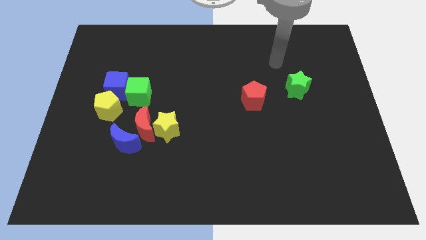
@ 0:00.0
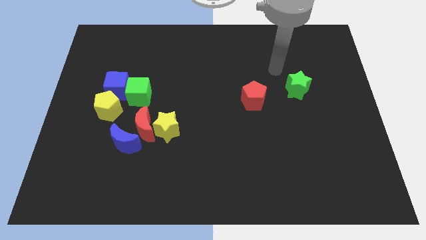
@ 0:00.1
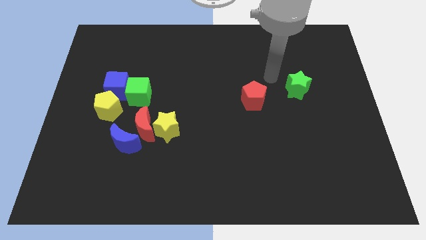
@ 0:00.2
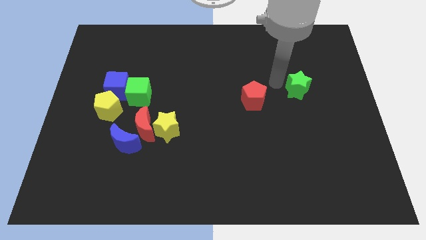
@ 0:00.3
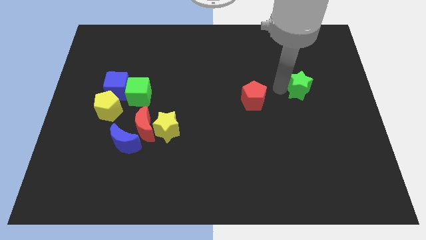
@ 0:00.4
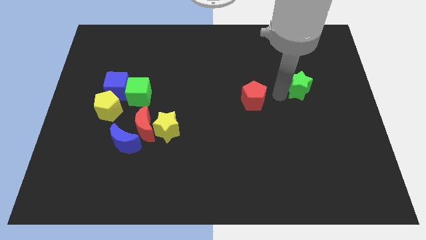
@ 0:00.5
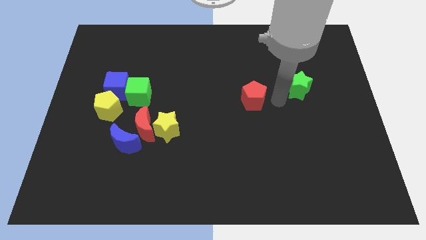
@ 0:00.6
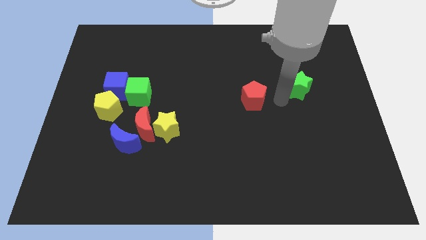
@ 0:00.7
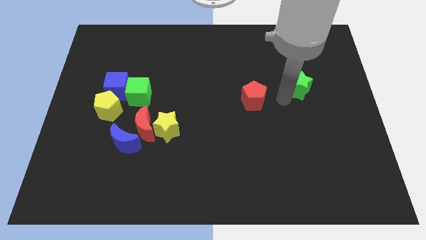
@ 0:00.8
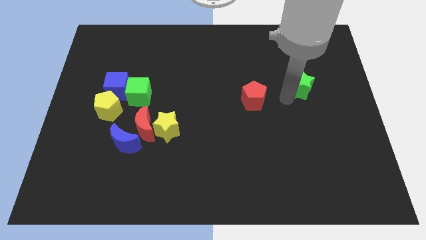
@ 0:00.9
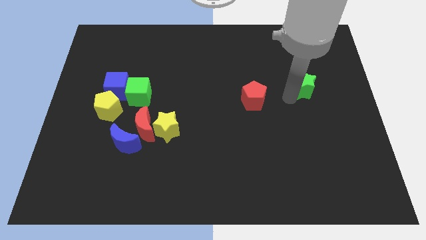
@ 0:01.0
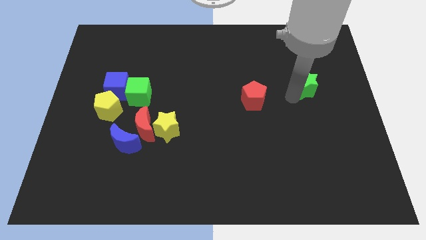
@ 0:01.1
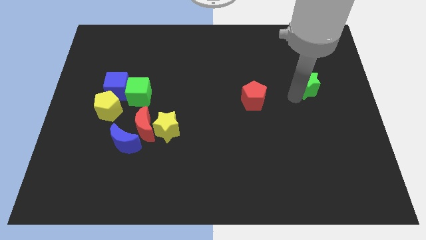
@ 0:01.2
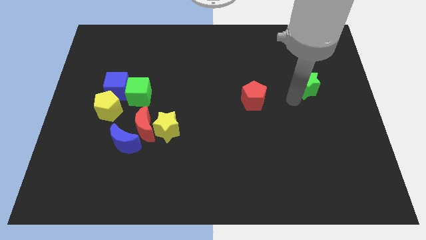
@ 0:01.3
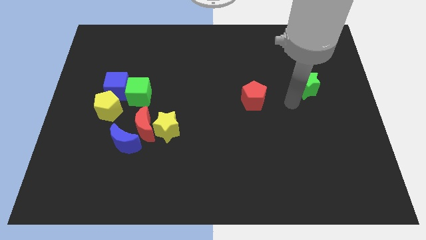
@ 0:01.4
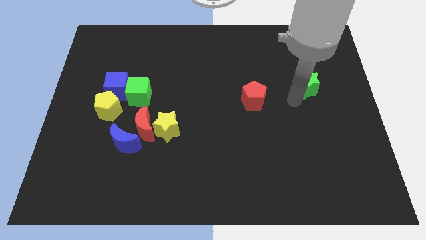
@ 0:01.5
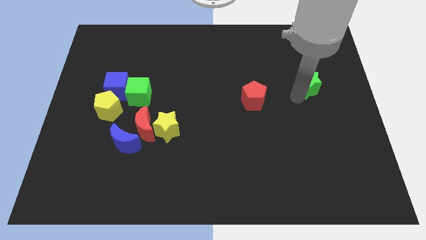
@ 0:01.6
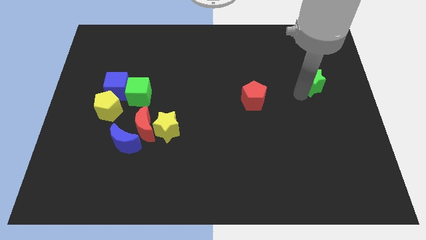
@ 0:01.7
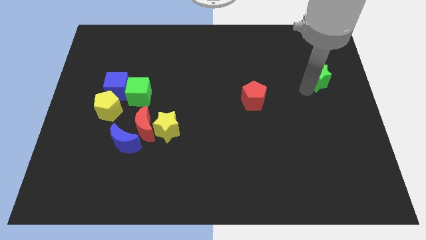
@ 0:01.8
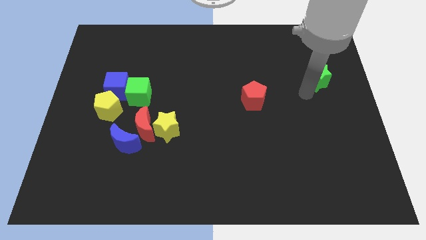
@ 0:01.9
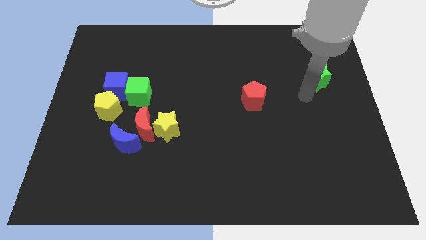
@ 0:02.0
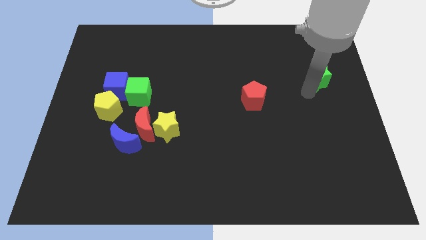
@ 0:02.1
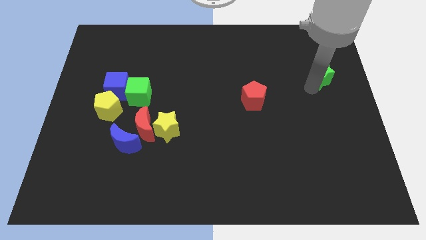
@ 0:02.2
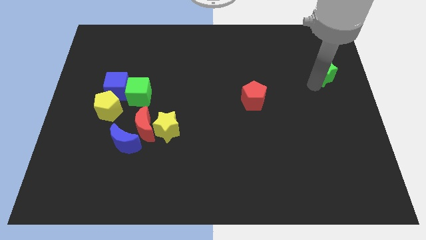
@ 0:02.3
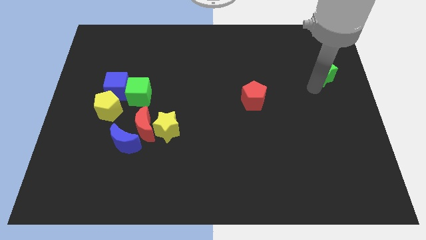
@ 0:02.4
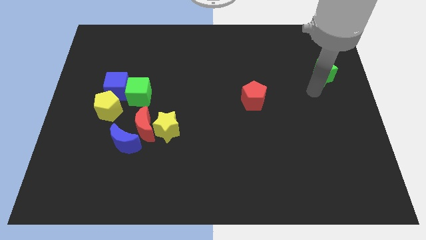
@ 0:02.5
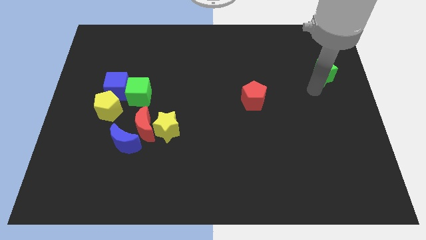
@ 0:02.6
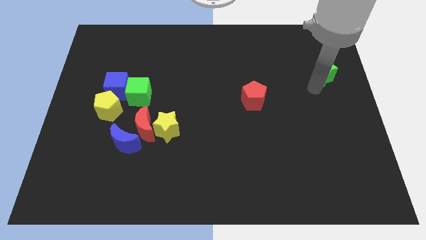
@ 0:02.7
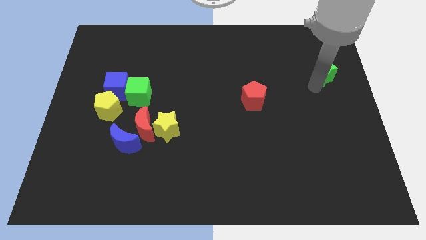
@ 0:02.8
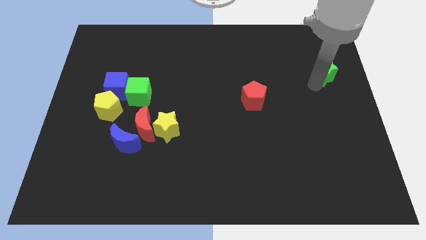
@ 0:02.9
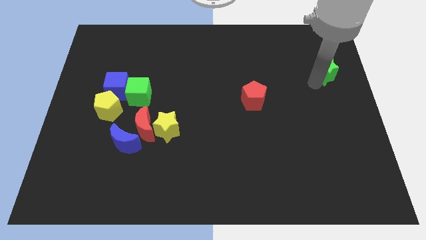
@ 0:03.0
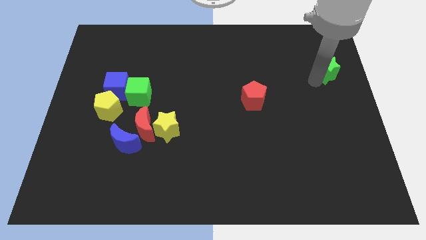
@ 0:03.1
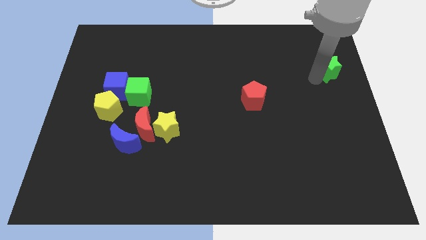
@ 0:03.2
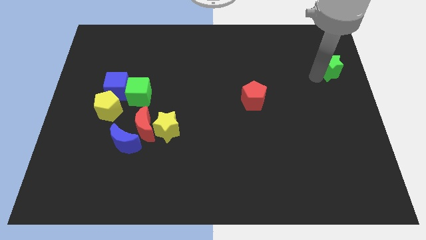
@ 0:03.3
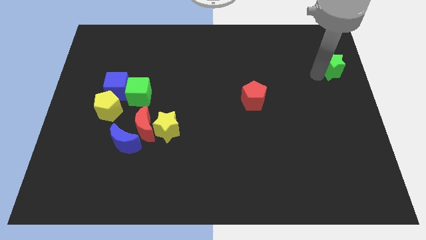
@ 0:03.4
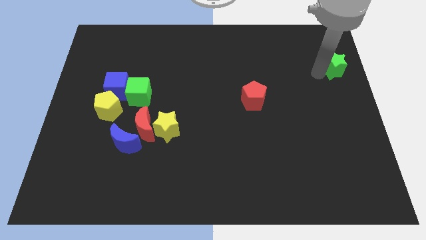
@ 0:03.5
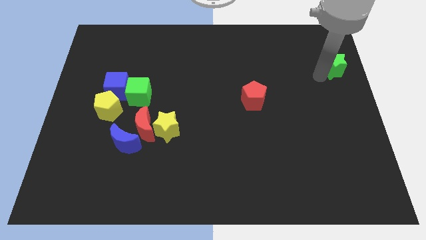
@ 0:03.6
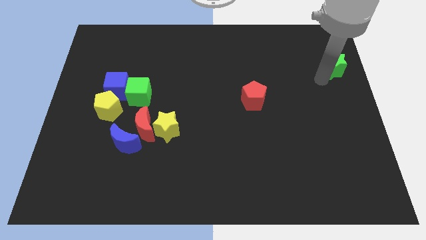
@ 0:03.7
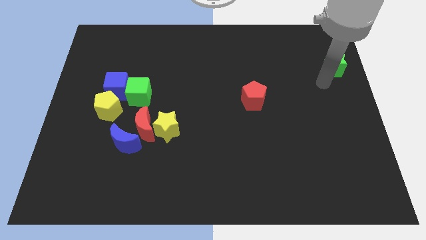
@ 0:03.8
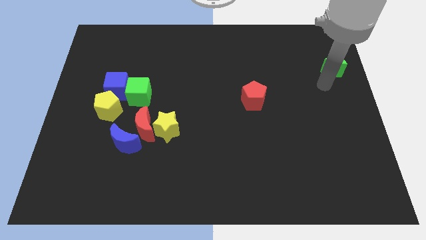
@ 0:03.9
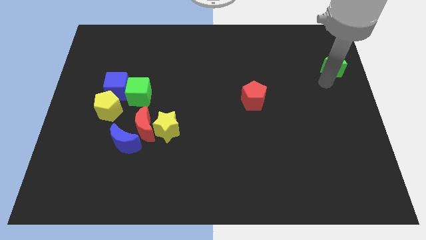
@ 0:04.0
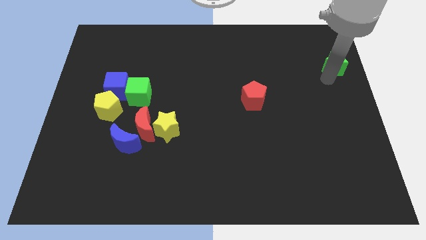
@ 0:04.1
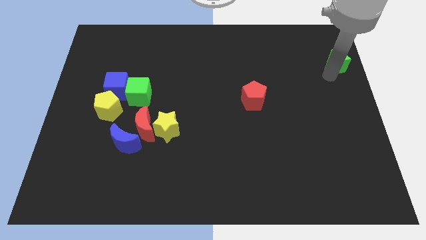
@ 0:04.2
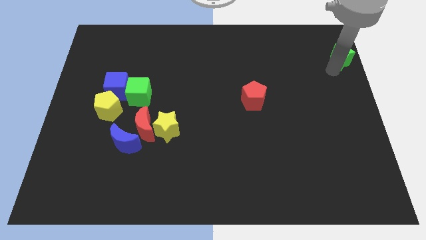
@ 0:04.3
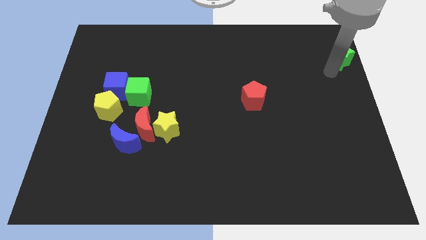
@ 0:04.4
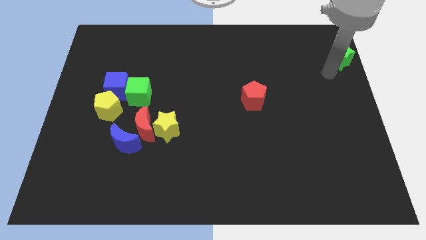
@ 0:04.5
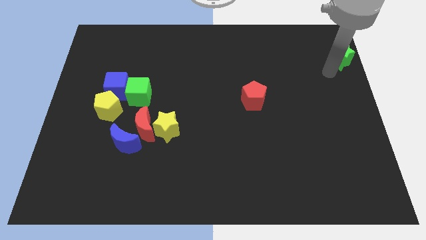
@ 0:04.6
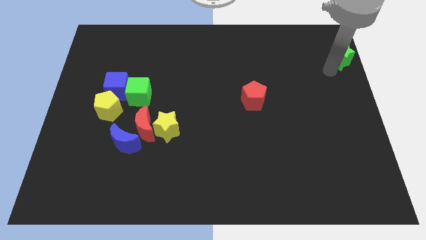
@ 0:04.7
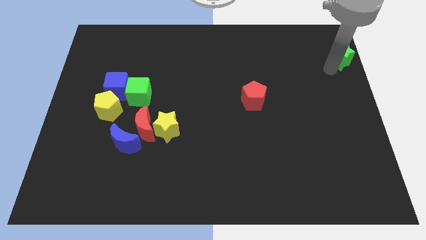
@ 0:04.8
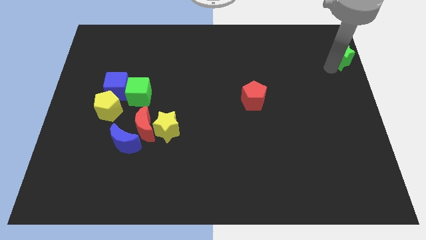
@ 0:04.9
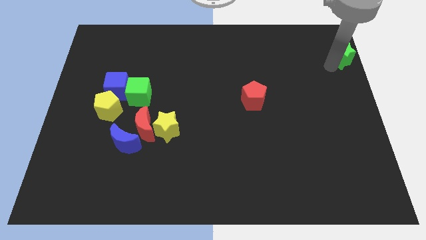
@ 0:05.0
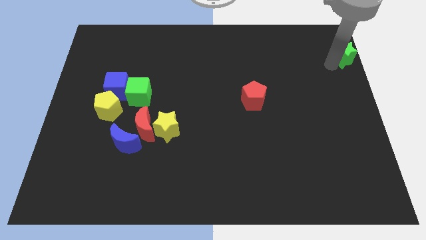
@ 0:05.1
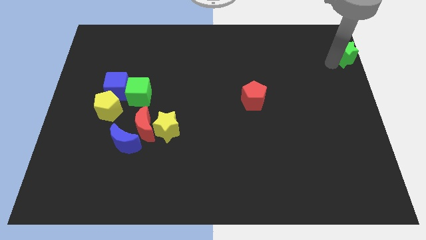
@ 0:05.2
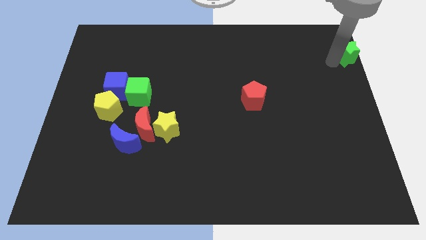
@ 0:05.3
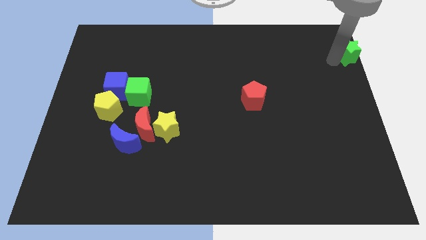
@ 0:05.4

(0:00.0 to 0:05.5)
slide the green star to the top right

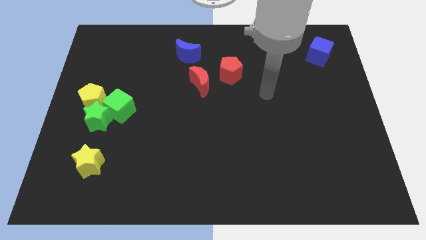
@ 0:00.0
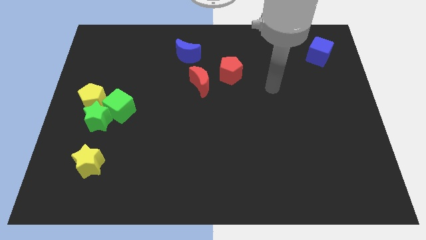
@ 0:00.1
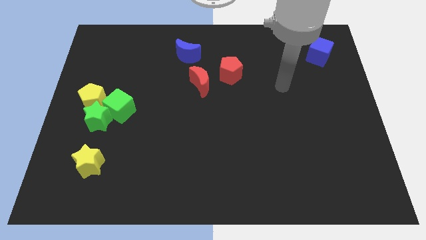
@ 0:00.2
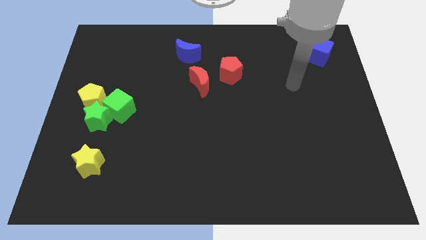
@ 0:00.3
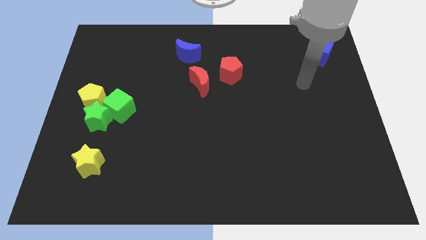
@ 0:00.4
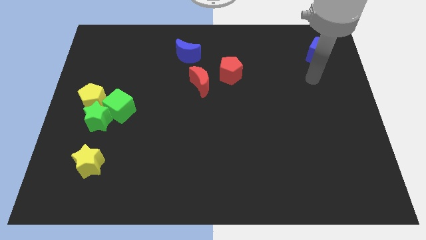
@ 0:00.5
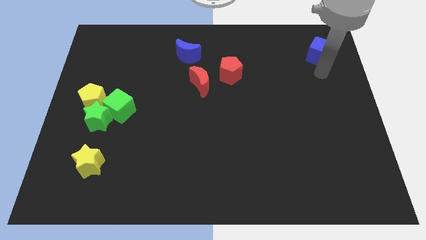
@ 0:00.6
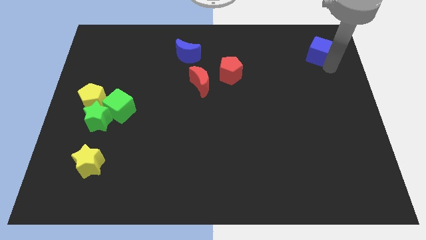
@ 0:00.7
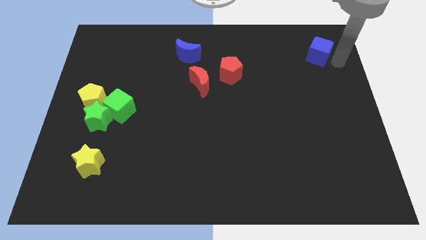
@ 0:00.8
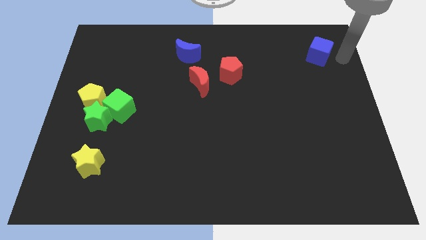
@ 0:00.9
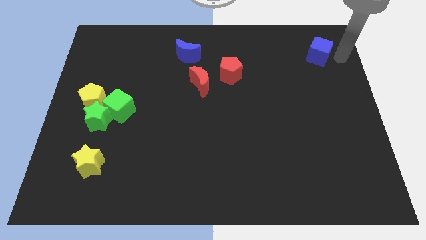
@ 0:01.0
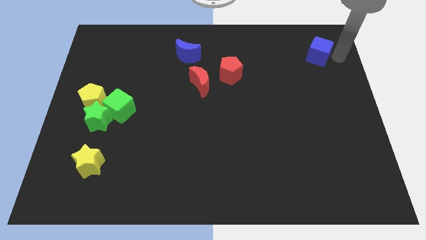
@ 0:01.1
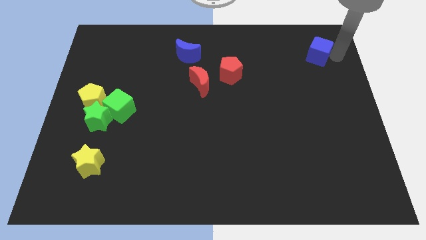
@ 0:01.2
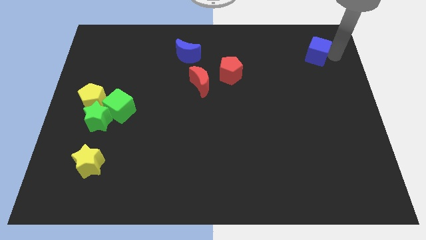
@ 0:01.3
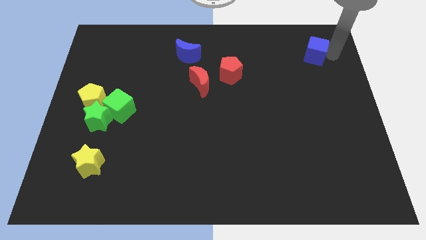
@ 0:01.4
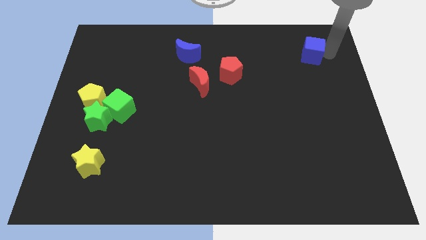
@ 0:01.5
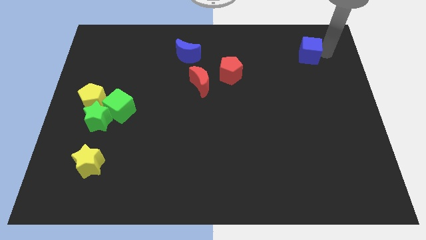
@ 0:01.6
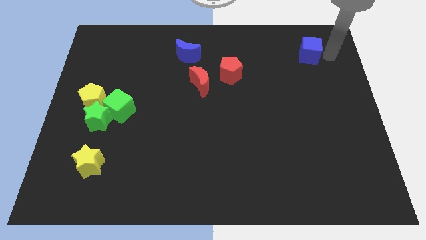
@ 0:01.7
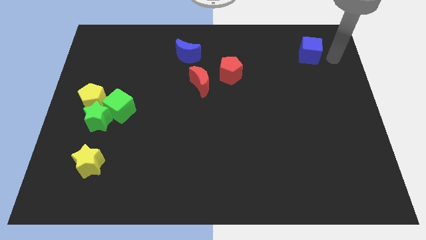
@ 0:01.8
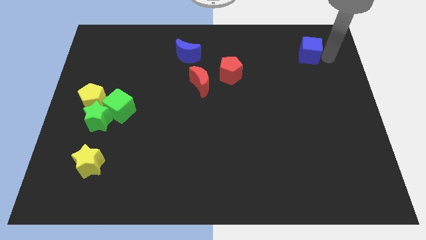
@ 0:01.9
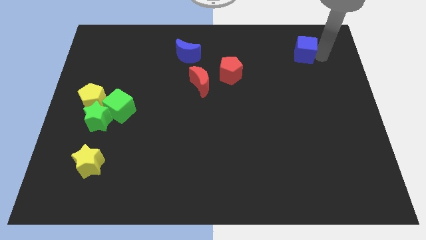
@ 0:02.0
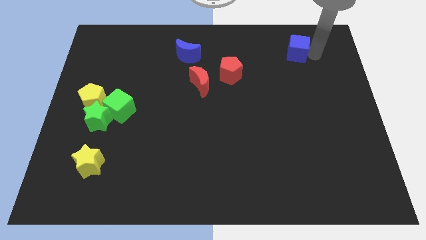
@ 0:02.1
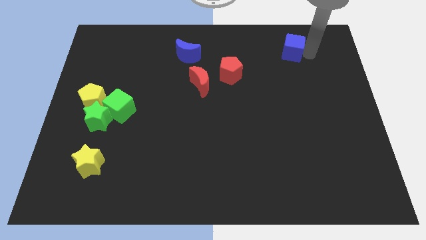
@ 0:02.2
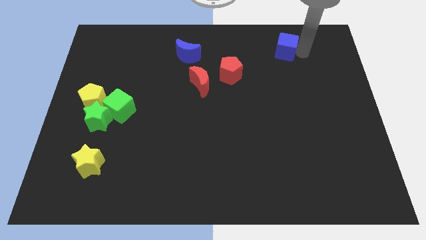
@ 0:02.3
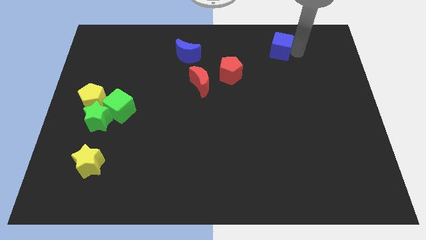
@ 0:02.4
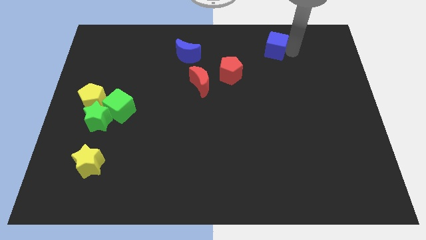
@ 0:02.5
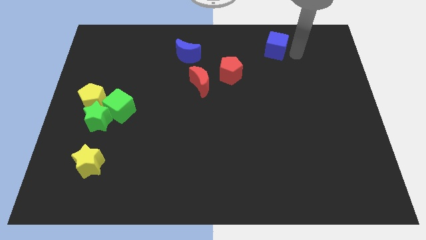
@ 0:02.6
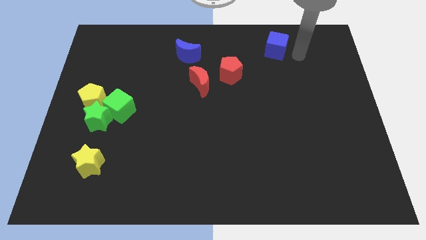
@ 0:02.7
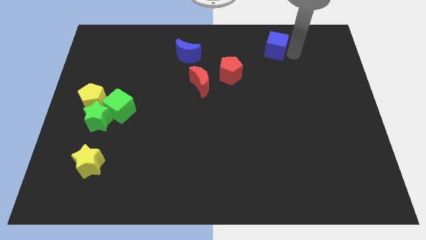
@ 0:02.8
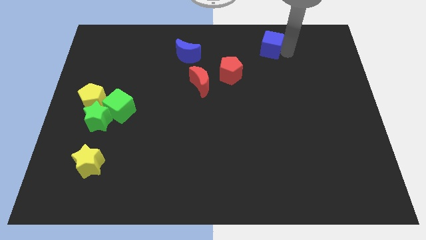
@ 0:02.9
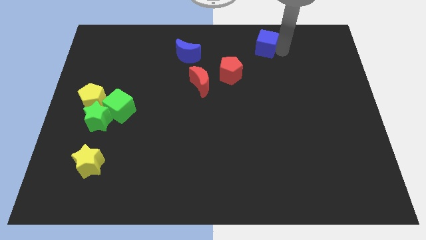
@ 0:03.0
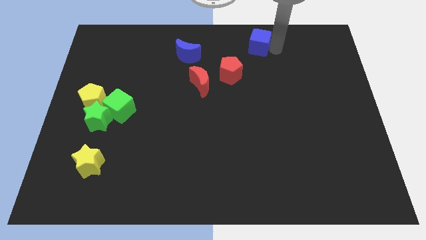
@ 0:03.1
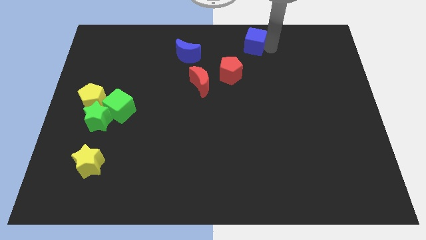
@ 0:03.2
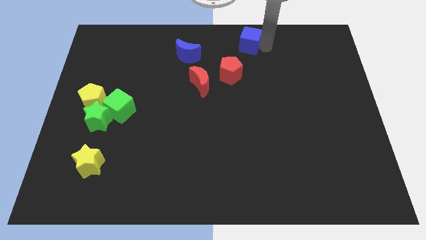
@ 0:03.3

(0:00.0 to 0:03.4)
slide the blue cube to the top side
